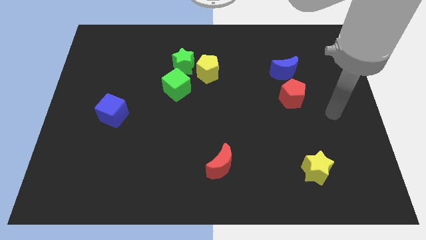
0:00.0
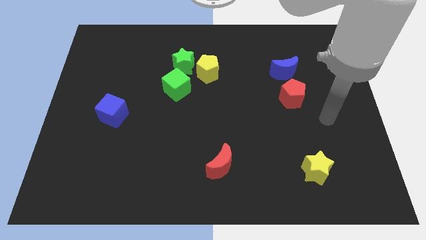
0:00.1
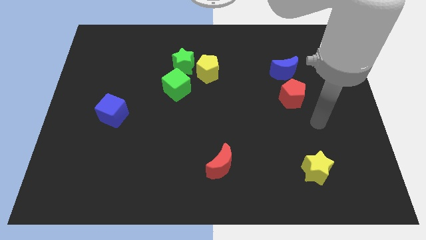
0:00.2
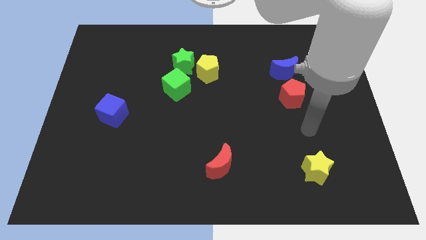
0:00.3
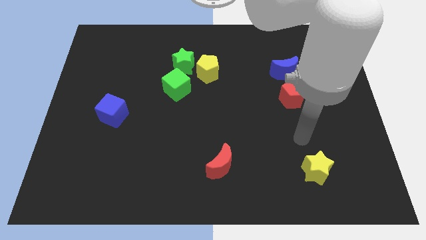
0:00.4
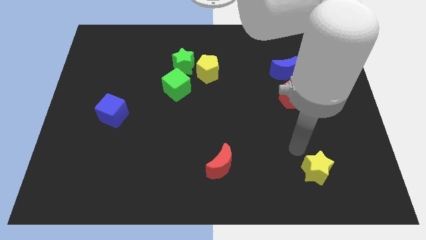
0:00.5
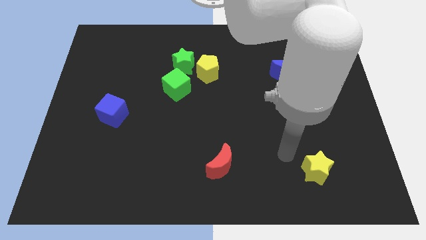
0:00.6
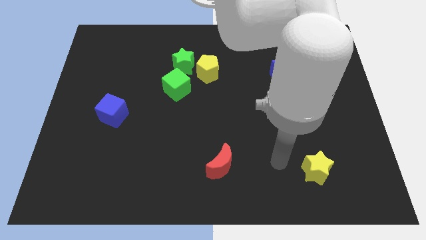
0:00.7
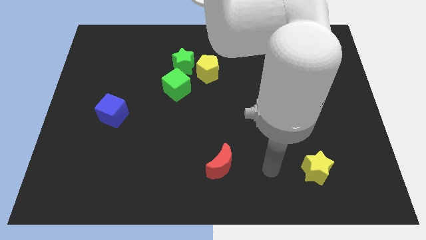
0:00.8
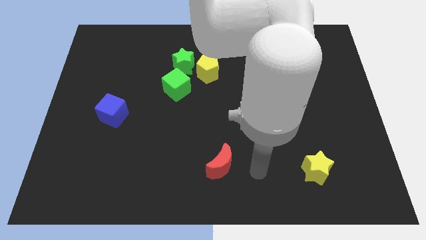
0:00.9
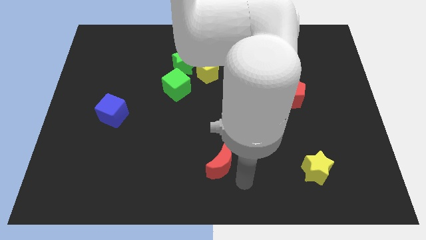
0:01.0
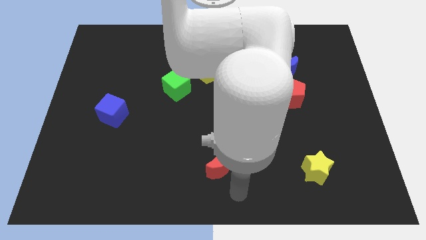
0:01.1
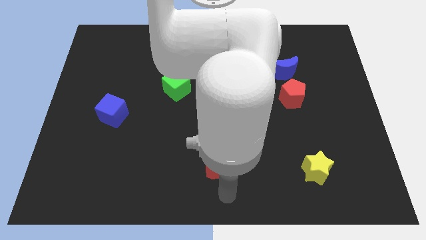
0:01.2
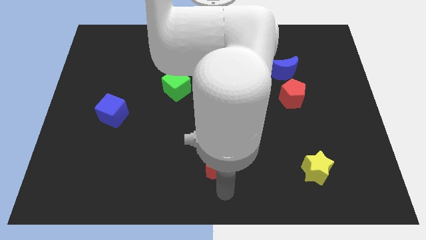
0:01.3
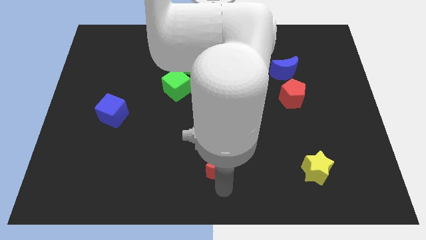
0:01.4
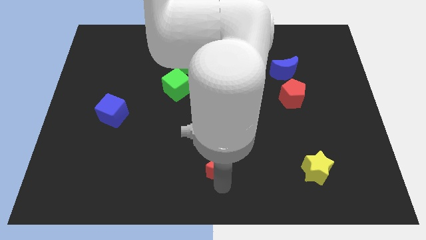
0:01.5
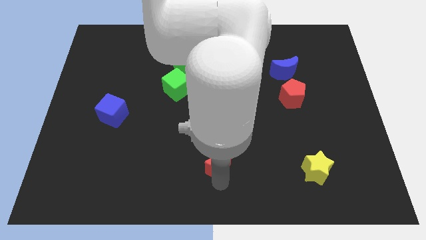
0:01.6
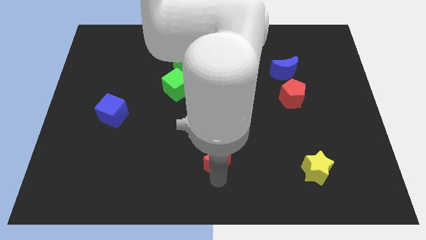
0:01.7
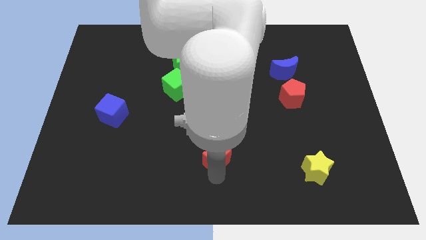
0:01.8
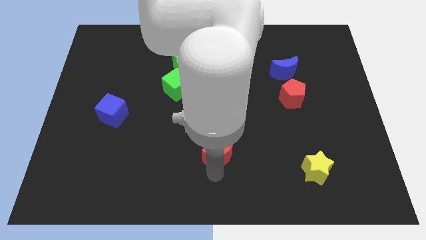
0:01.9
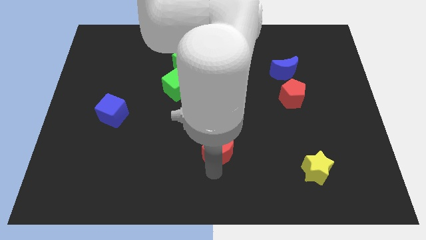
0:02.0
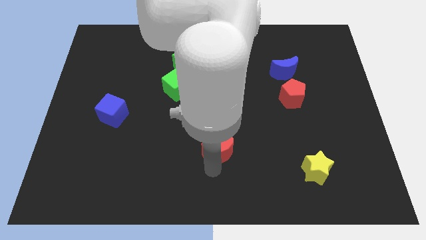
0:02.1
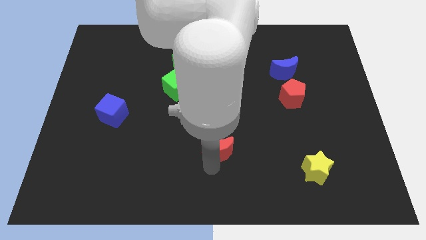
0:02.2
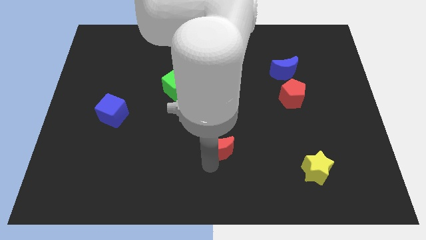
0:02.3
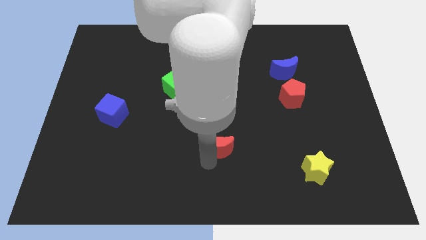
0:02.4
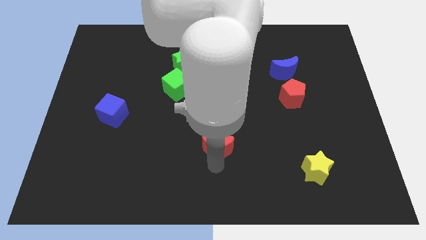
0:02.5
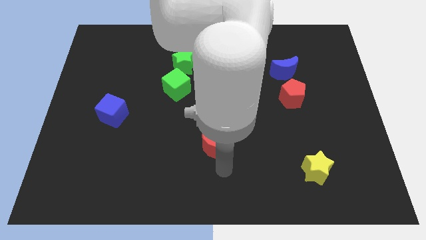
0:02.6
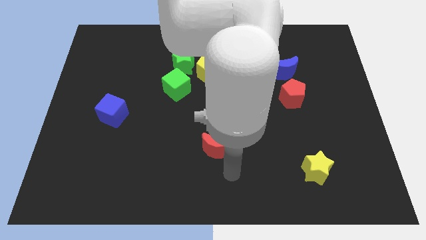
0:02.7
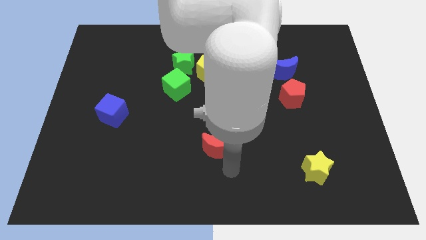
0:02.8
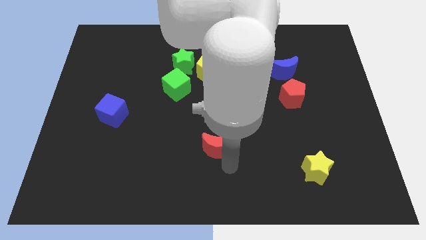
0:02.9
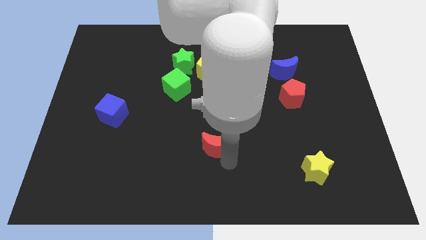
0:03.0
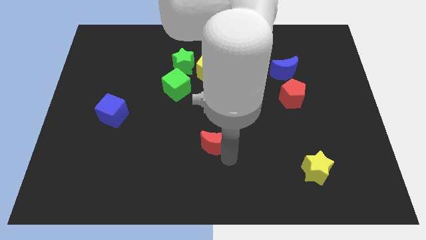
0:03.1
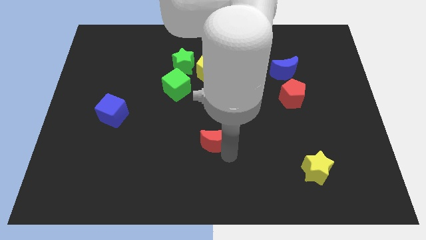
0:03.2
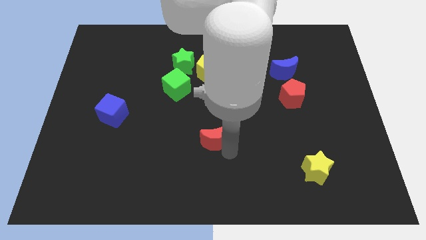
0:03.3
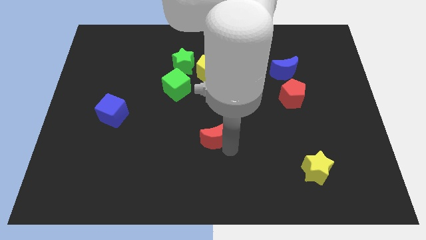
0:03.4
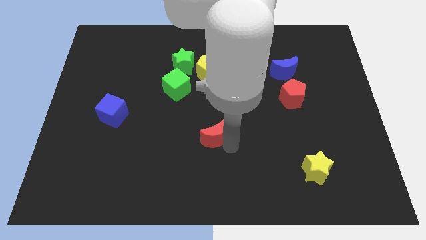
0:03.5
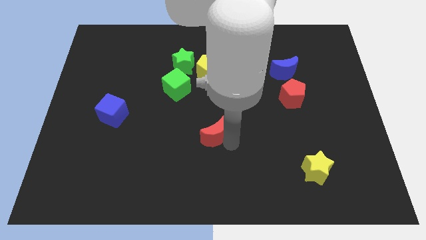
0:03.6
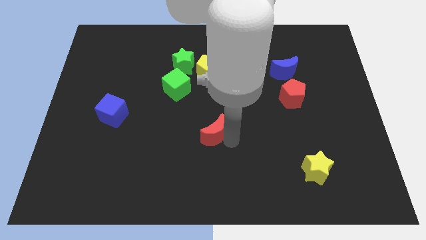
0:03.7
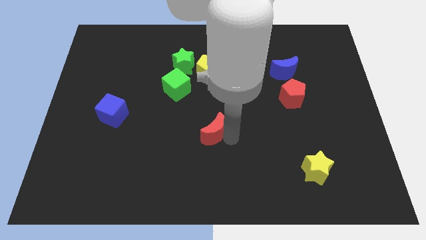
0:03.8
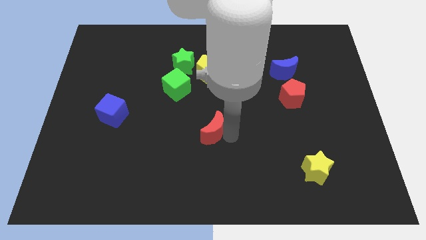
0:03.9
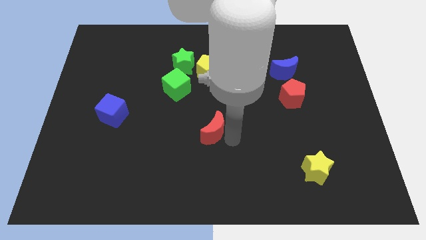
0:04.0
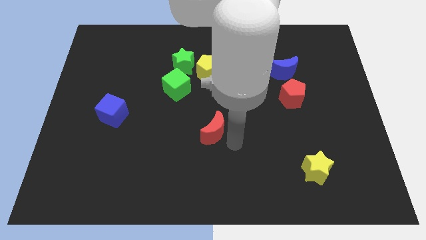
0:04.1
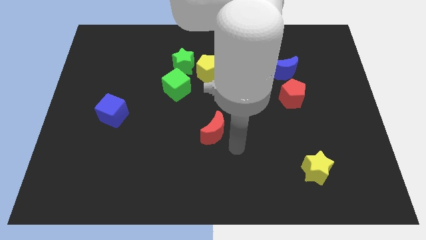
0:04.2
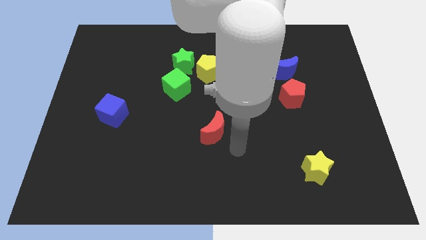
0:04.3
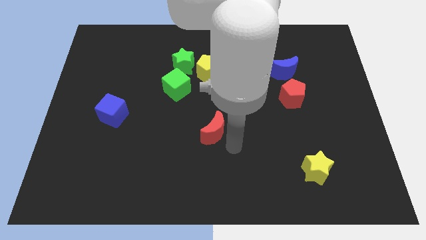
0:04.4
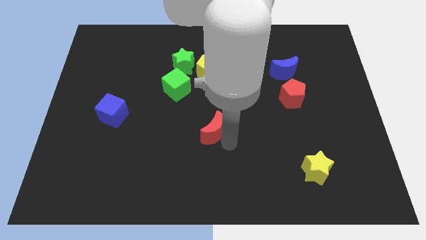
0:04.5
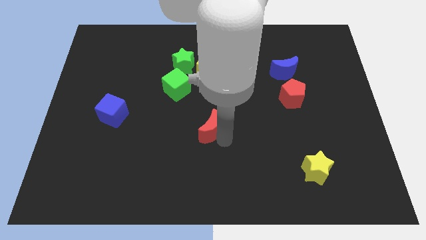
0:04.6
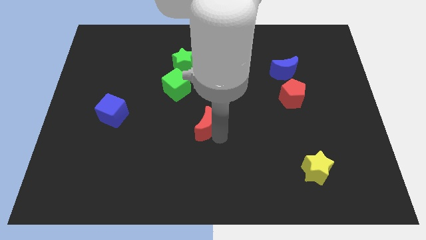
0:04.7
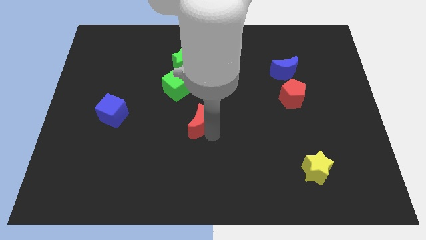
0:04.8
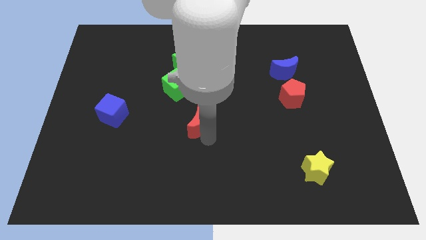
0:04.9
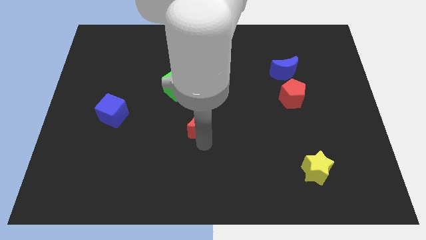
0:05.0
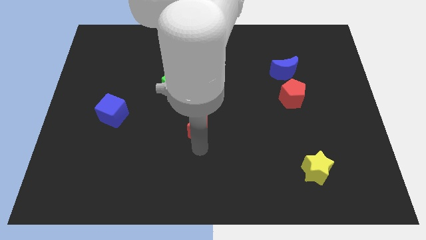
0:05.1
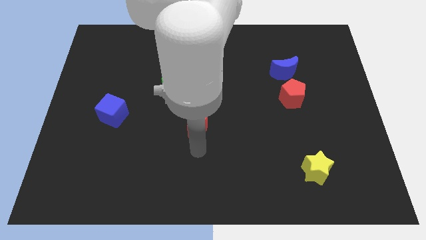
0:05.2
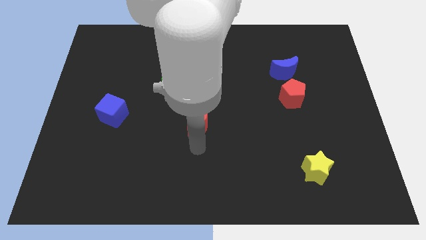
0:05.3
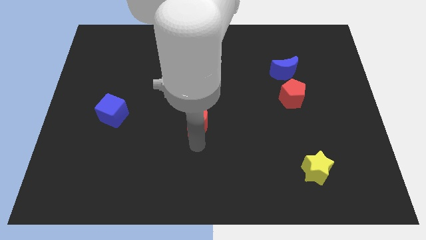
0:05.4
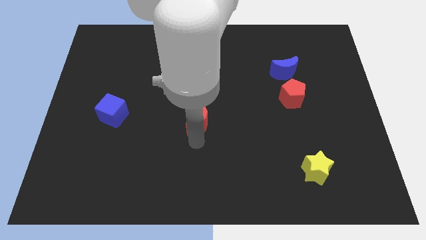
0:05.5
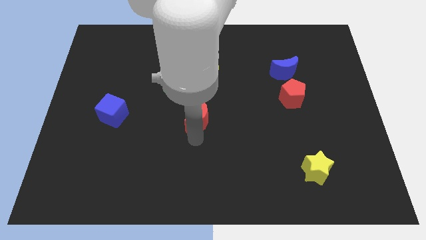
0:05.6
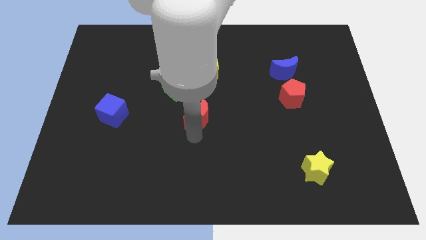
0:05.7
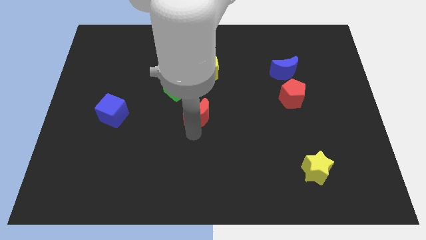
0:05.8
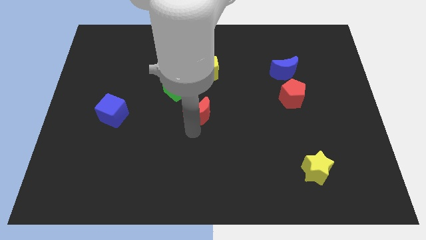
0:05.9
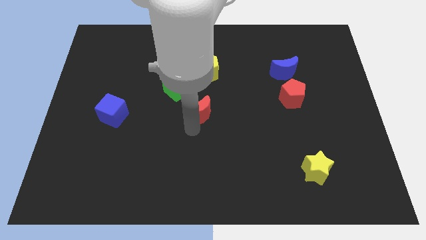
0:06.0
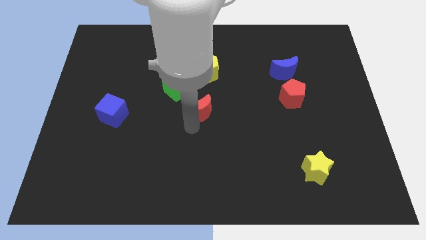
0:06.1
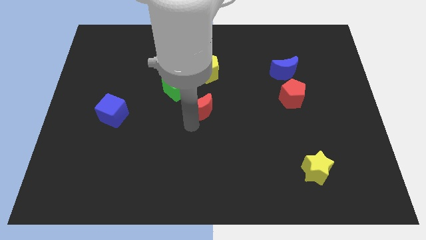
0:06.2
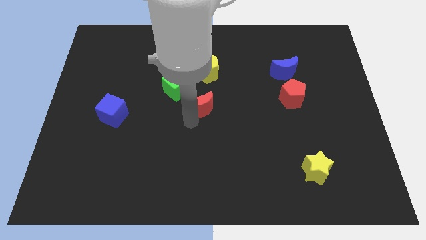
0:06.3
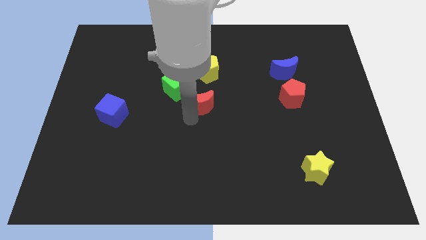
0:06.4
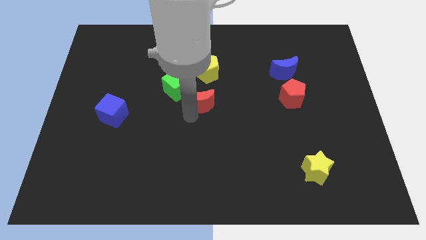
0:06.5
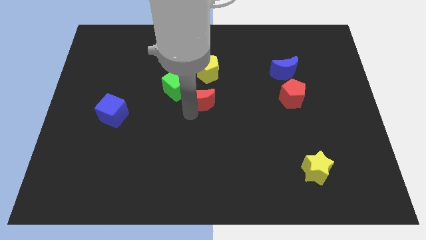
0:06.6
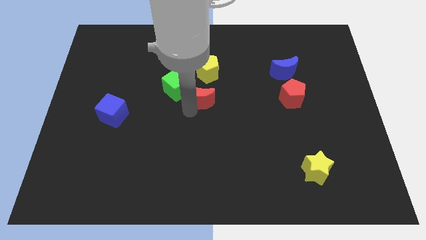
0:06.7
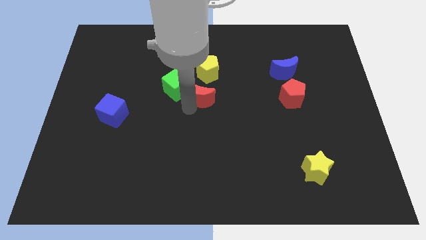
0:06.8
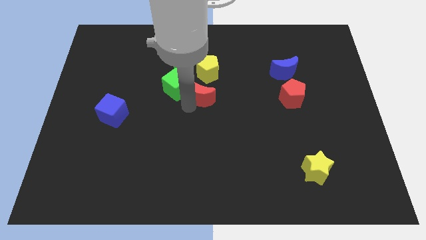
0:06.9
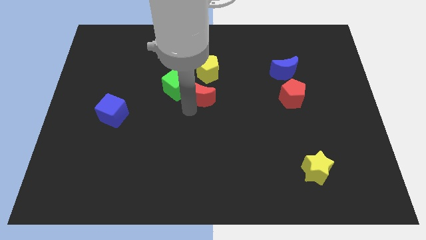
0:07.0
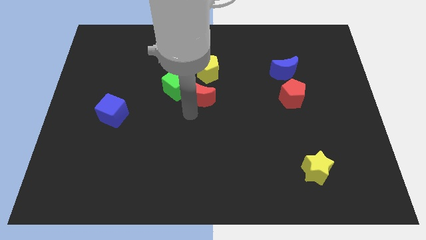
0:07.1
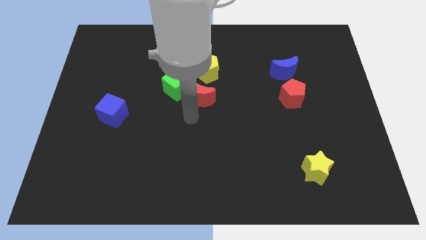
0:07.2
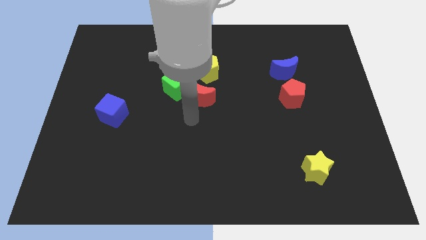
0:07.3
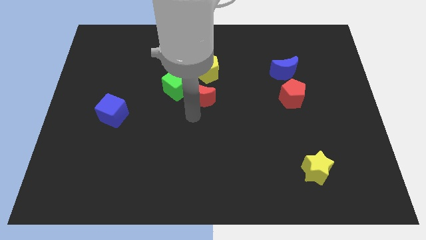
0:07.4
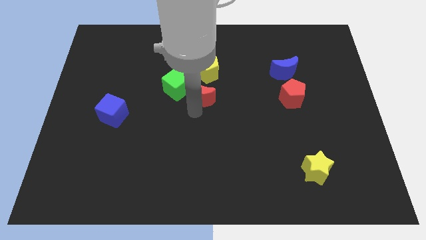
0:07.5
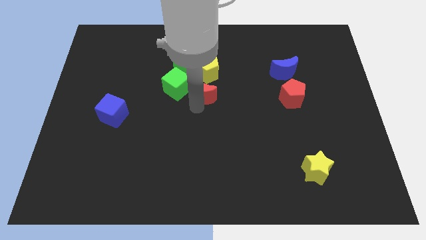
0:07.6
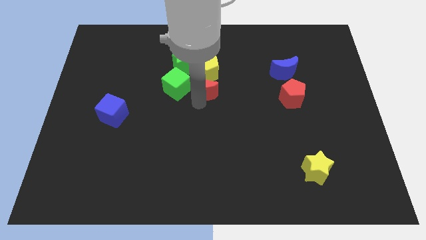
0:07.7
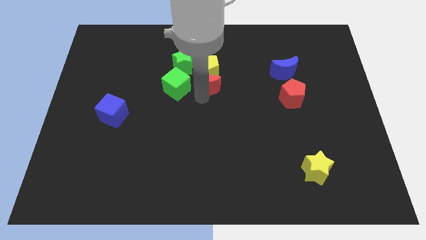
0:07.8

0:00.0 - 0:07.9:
move the red moon next to the yellow pentagon
